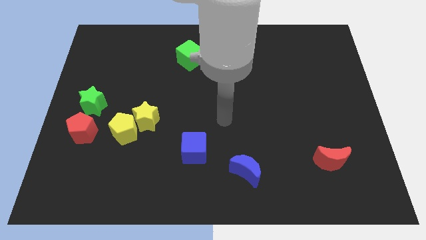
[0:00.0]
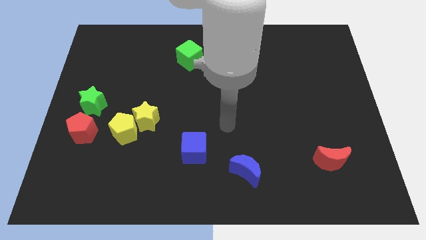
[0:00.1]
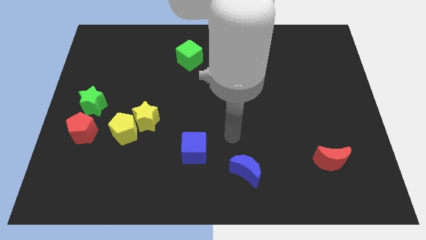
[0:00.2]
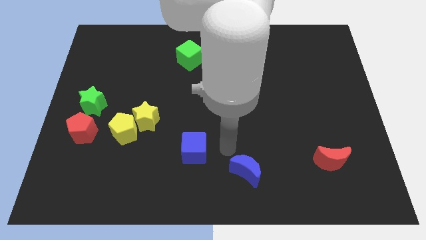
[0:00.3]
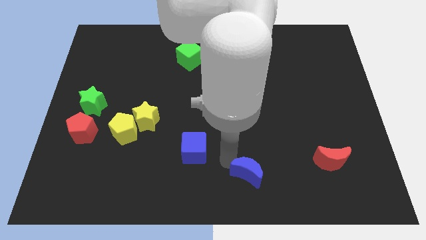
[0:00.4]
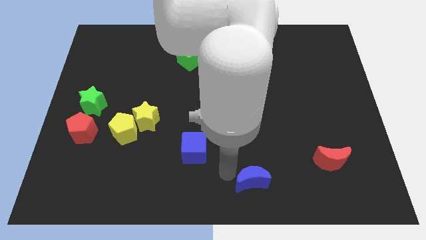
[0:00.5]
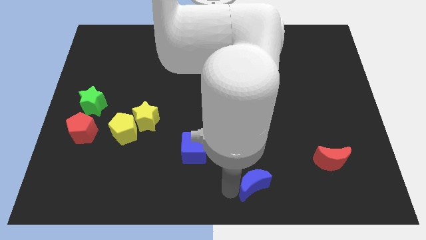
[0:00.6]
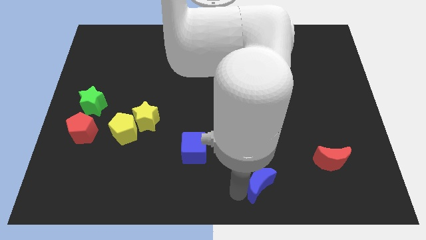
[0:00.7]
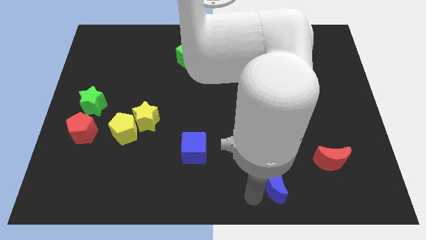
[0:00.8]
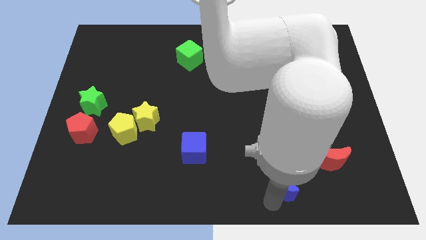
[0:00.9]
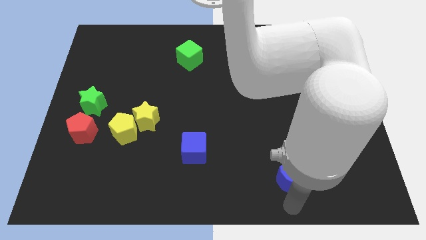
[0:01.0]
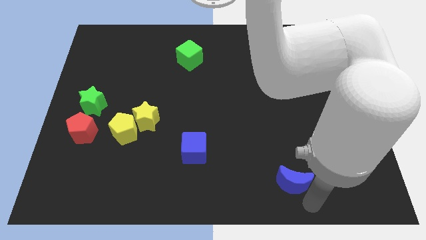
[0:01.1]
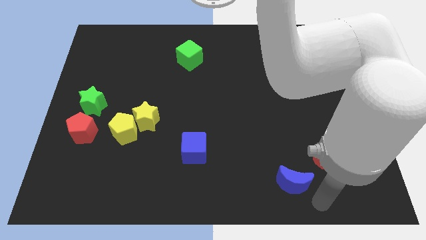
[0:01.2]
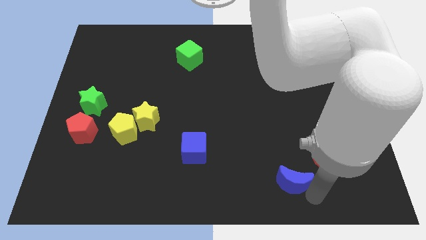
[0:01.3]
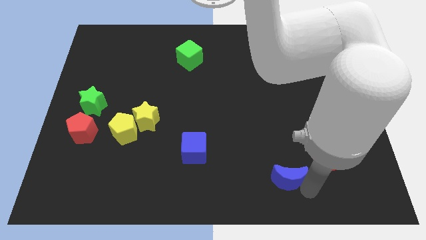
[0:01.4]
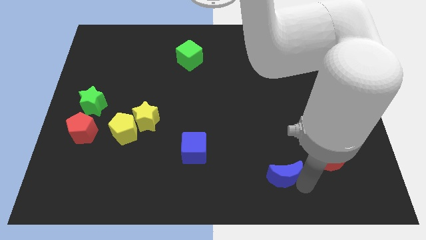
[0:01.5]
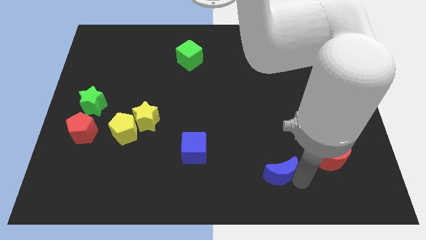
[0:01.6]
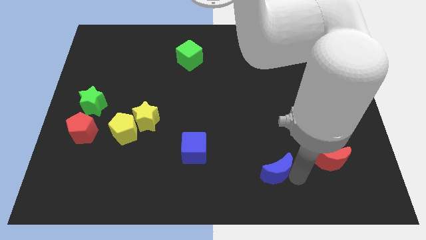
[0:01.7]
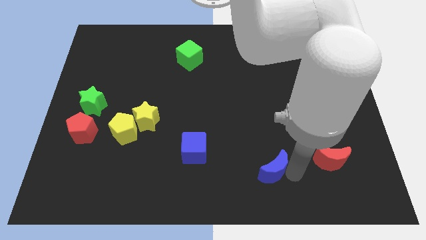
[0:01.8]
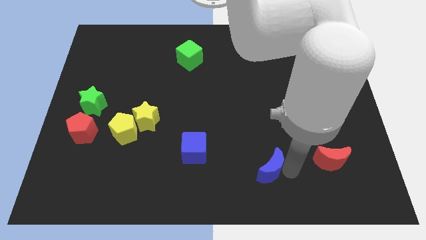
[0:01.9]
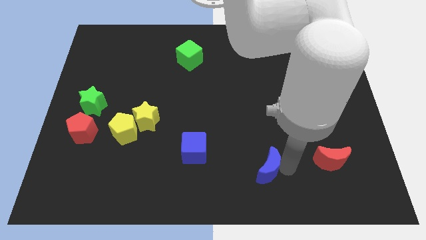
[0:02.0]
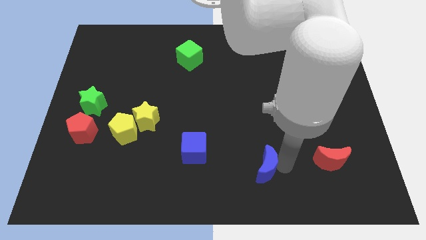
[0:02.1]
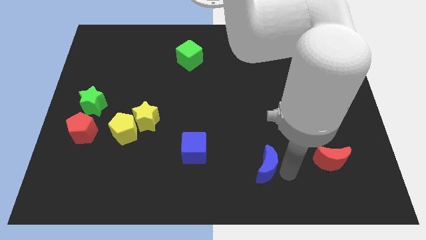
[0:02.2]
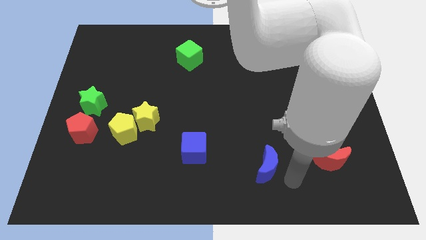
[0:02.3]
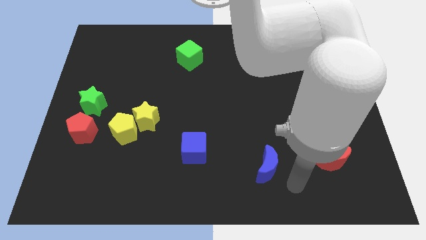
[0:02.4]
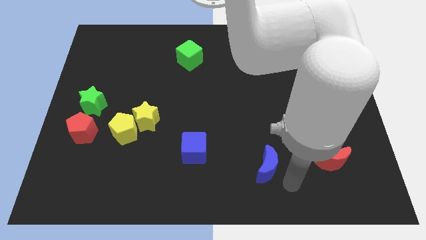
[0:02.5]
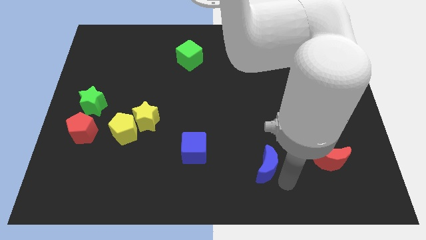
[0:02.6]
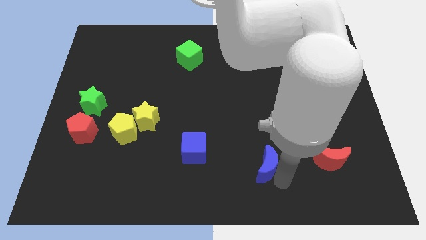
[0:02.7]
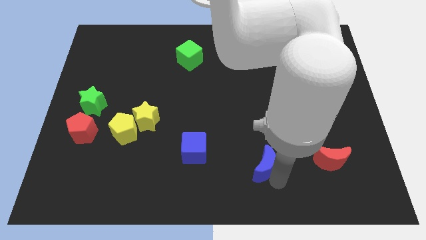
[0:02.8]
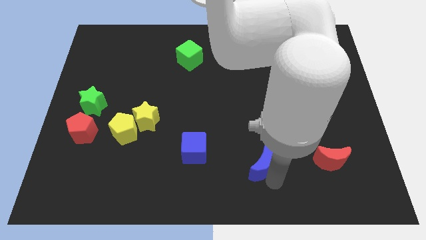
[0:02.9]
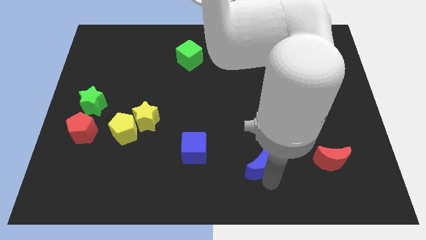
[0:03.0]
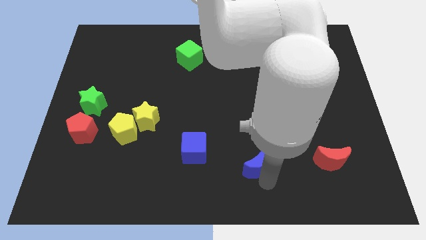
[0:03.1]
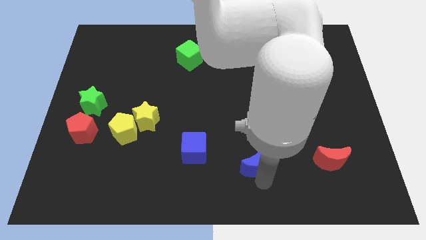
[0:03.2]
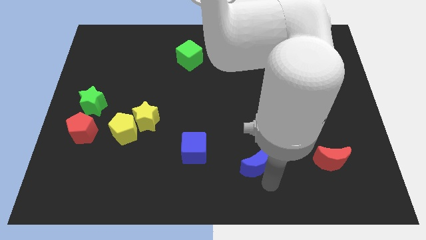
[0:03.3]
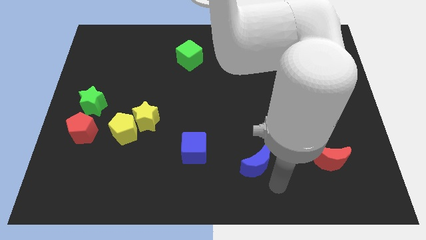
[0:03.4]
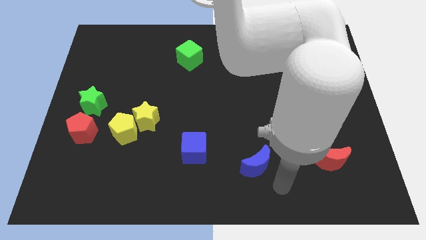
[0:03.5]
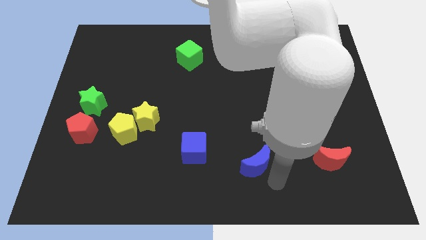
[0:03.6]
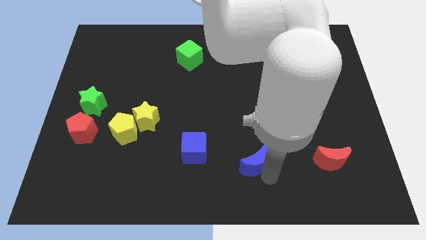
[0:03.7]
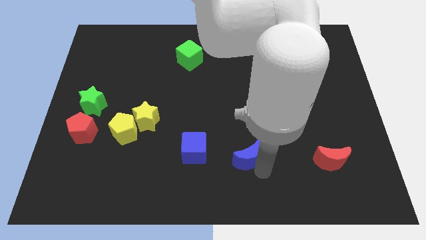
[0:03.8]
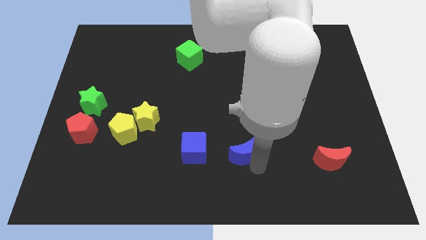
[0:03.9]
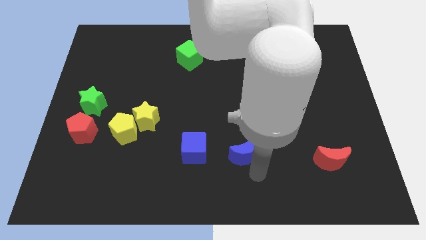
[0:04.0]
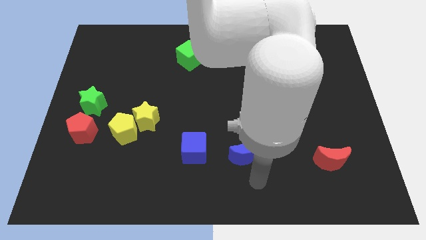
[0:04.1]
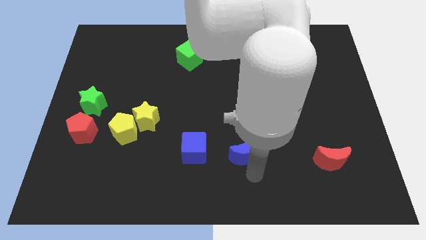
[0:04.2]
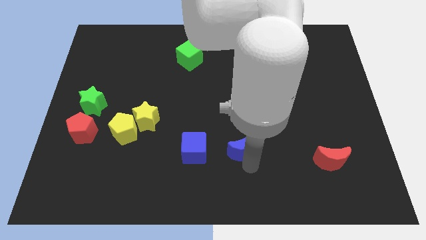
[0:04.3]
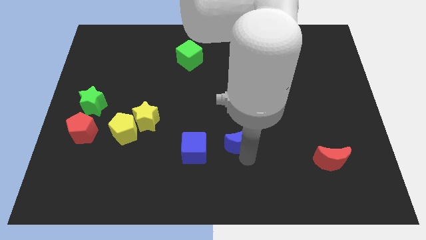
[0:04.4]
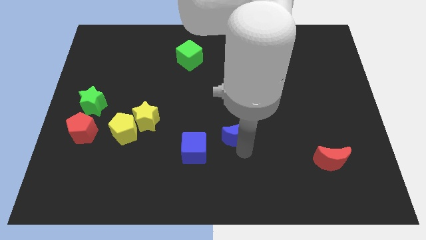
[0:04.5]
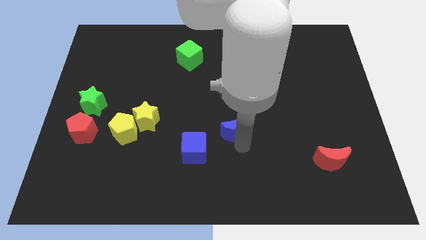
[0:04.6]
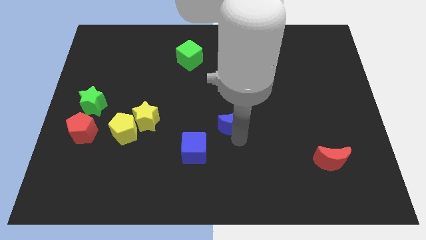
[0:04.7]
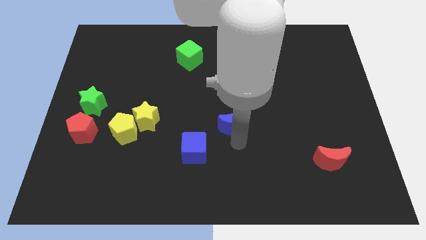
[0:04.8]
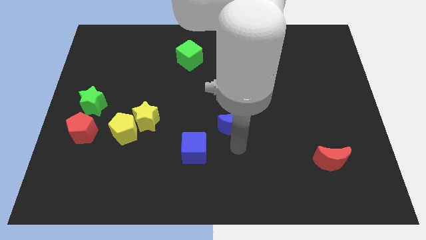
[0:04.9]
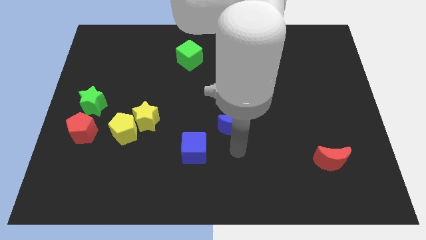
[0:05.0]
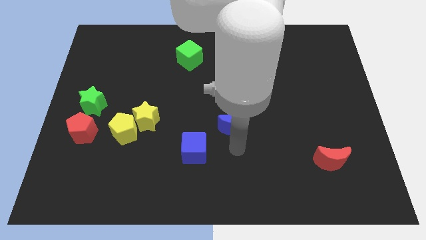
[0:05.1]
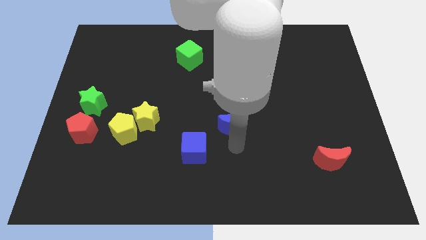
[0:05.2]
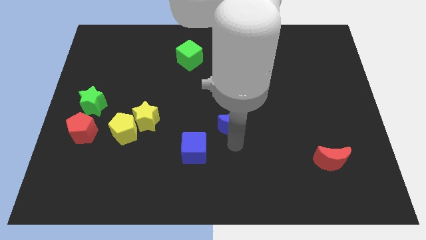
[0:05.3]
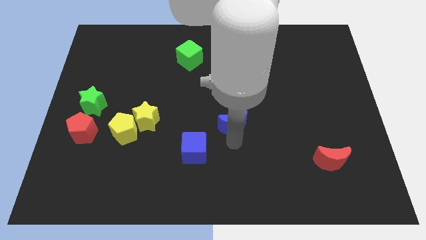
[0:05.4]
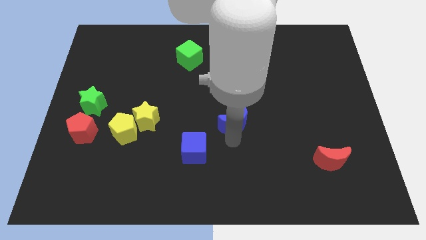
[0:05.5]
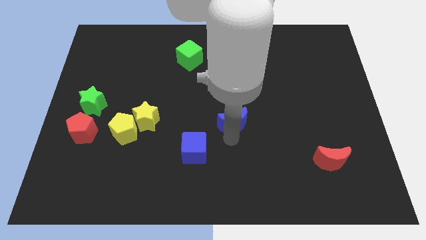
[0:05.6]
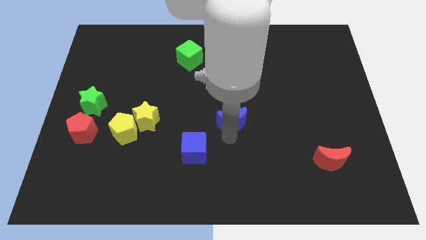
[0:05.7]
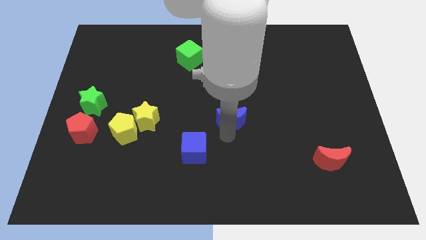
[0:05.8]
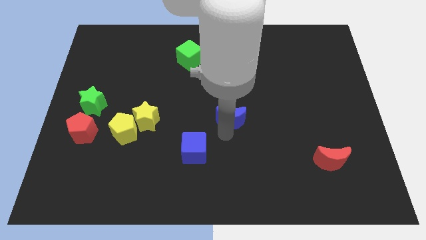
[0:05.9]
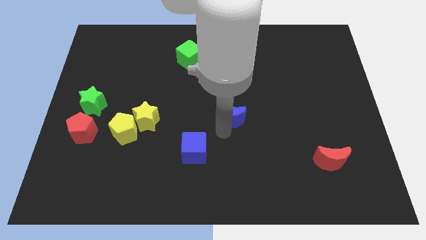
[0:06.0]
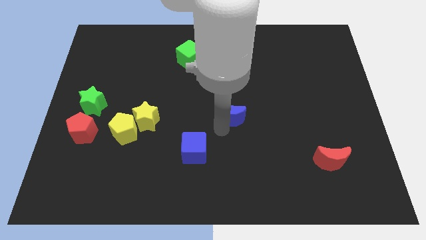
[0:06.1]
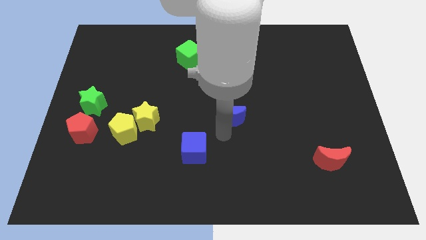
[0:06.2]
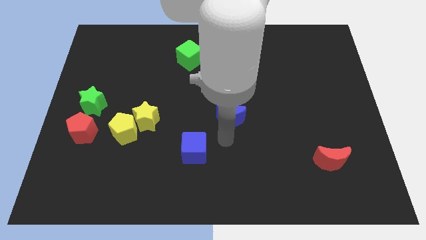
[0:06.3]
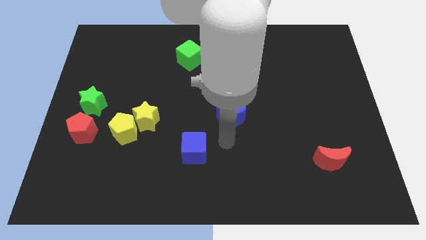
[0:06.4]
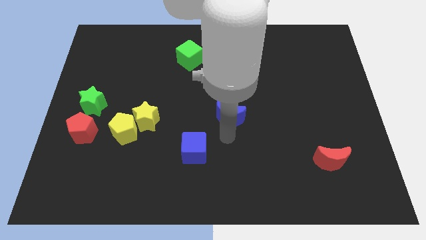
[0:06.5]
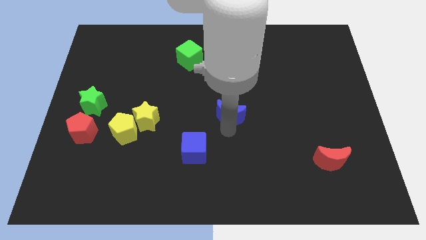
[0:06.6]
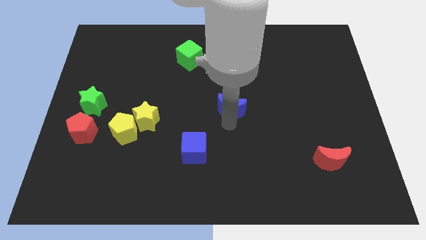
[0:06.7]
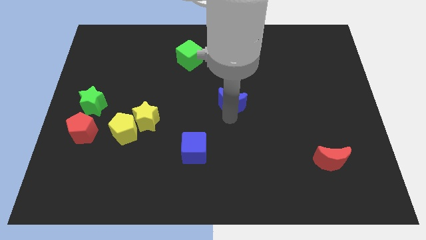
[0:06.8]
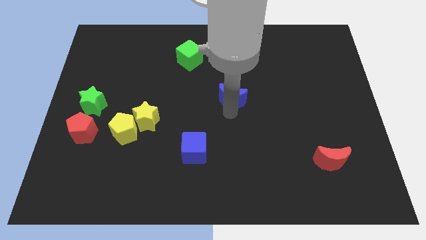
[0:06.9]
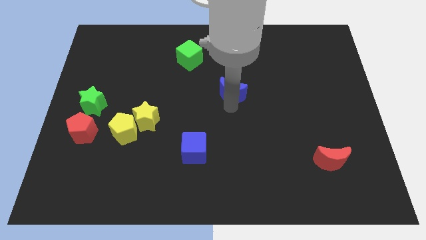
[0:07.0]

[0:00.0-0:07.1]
slide the blue moon up

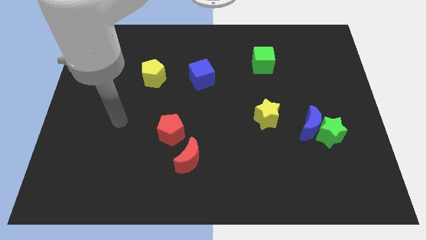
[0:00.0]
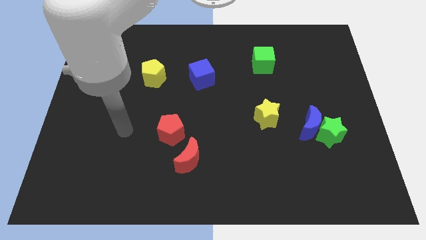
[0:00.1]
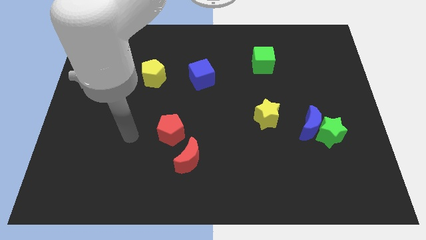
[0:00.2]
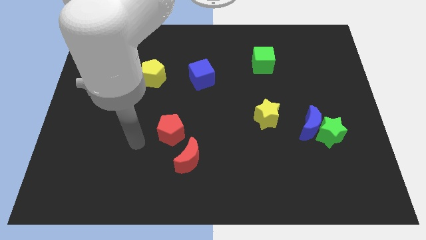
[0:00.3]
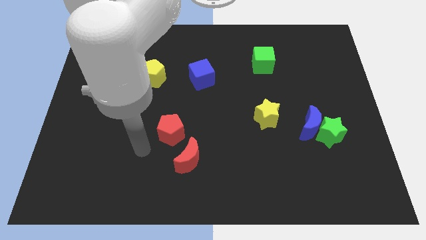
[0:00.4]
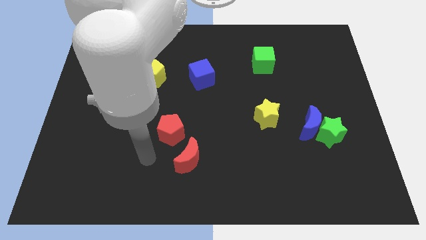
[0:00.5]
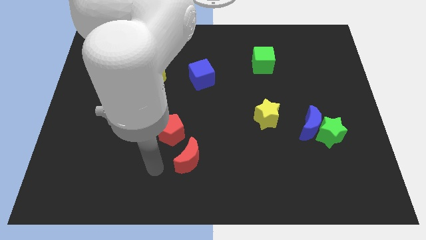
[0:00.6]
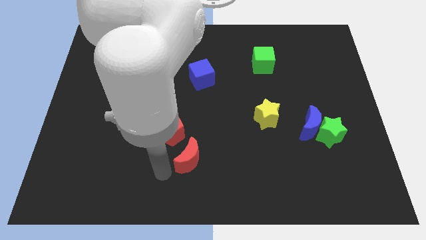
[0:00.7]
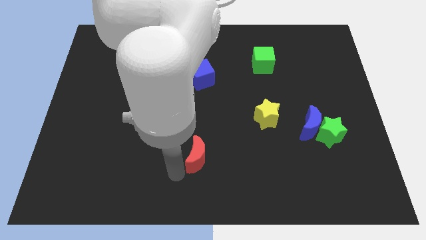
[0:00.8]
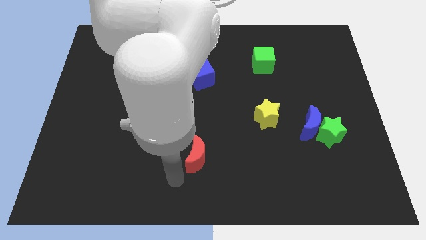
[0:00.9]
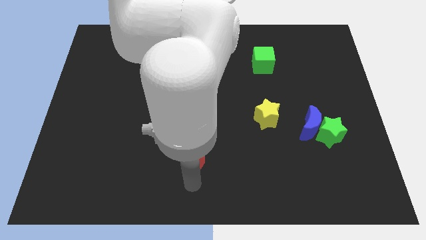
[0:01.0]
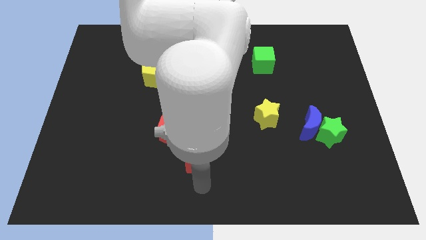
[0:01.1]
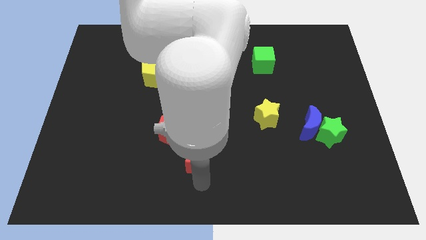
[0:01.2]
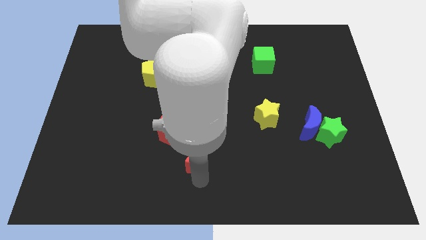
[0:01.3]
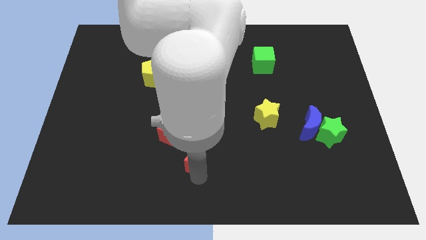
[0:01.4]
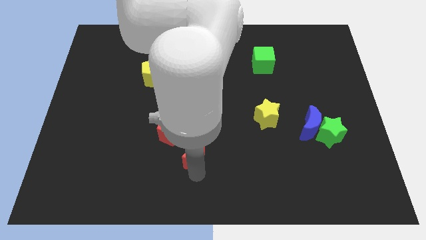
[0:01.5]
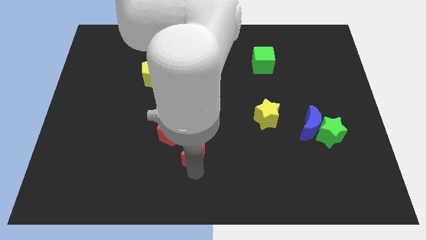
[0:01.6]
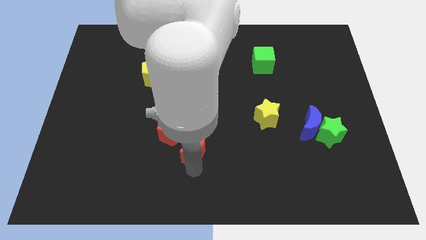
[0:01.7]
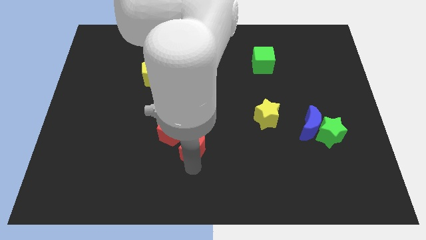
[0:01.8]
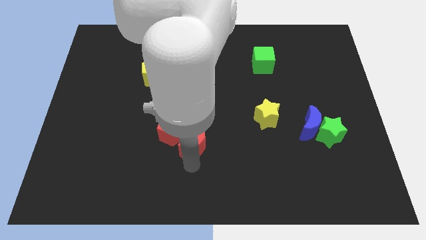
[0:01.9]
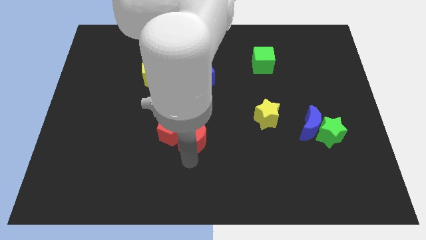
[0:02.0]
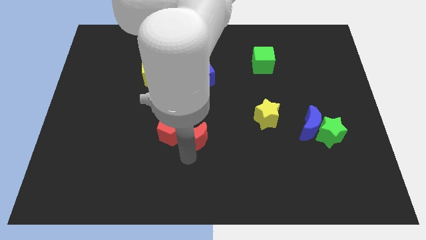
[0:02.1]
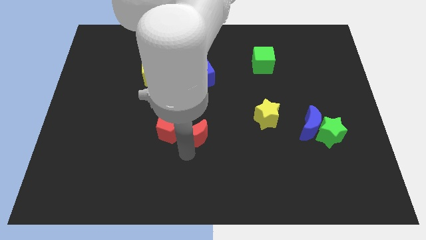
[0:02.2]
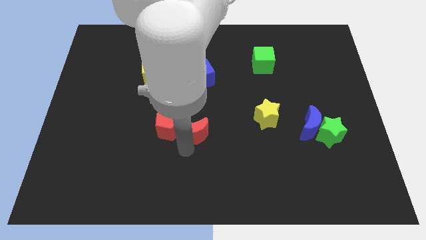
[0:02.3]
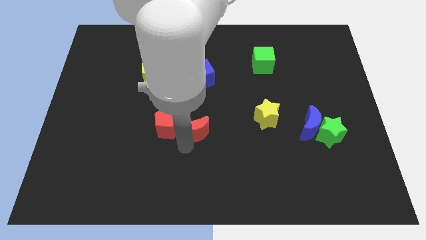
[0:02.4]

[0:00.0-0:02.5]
slide the red moon somewhat upwards
